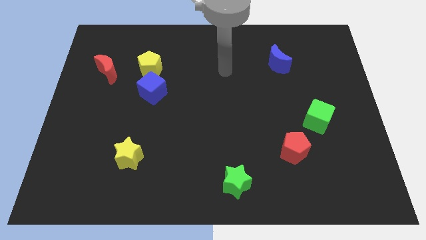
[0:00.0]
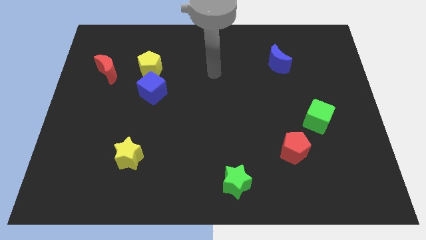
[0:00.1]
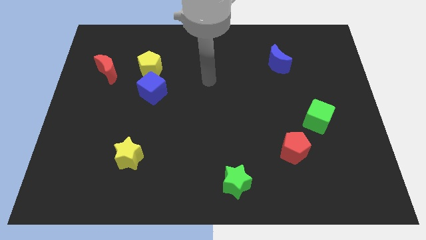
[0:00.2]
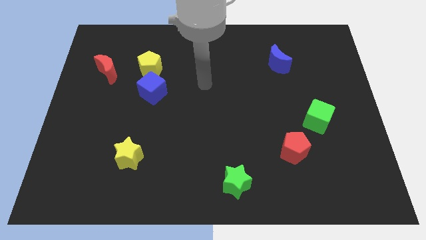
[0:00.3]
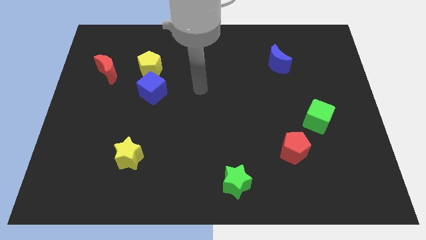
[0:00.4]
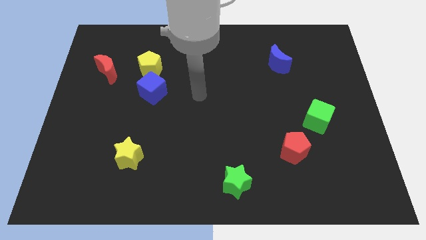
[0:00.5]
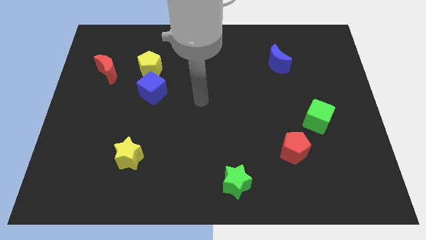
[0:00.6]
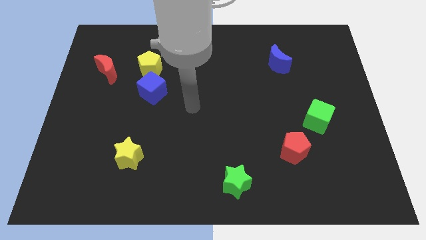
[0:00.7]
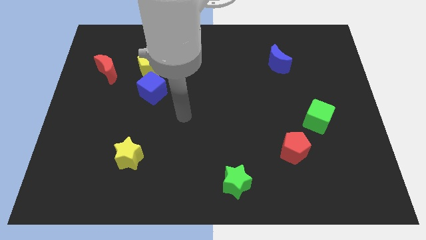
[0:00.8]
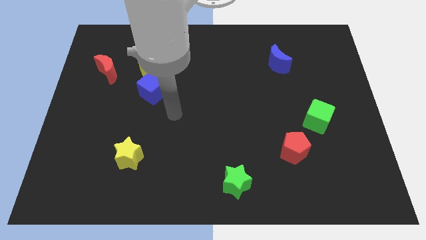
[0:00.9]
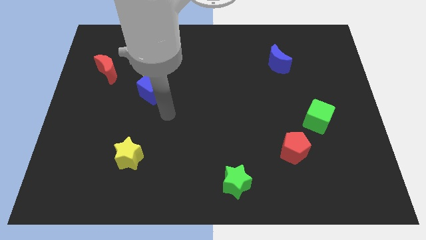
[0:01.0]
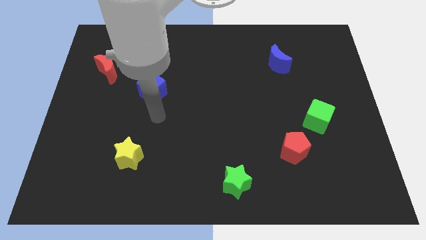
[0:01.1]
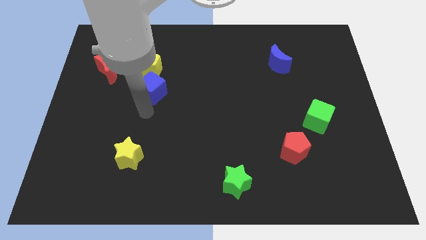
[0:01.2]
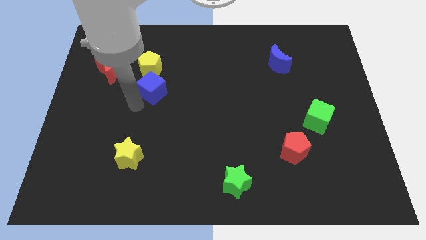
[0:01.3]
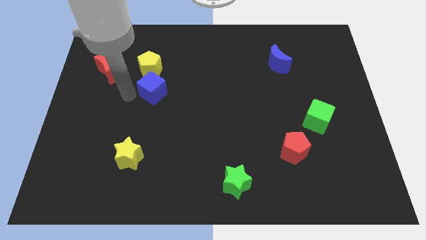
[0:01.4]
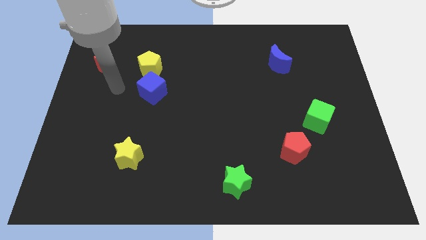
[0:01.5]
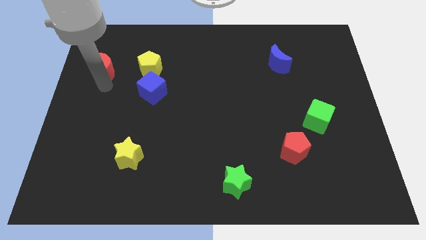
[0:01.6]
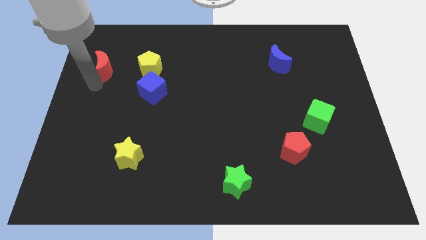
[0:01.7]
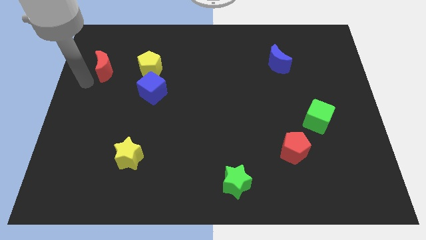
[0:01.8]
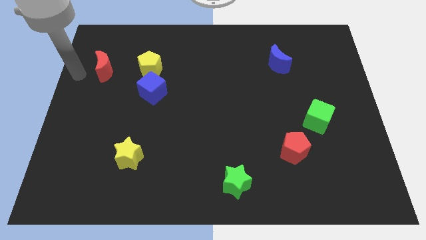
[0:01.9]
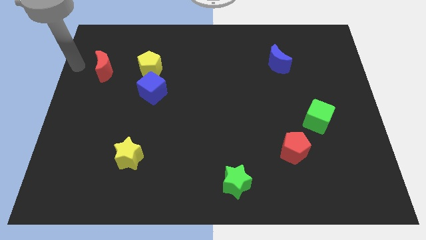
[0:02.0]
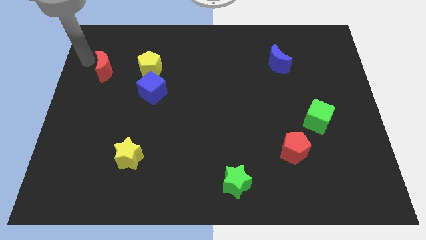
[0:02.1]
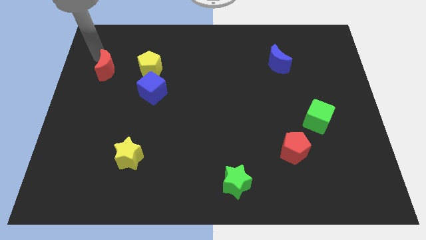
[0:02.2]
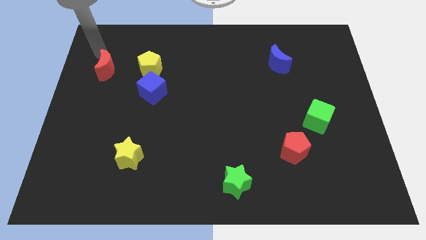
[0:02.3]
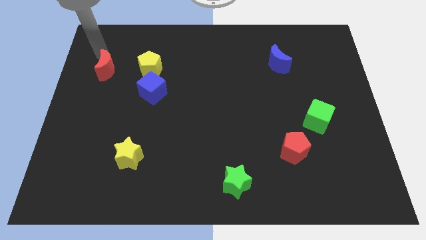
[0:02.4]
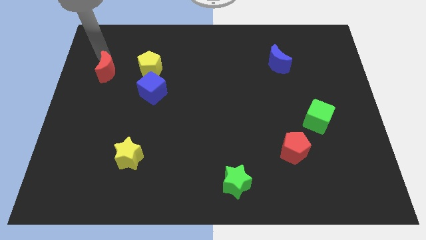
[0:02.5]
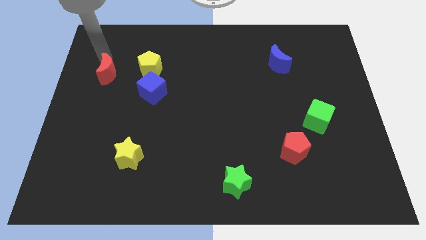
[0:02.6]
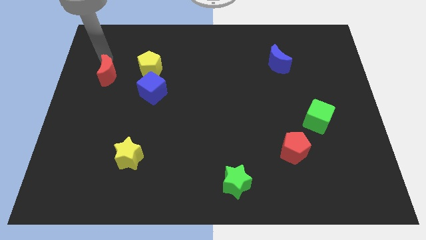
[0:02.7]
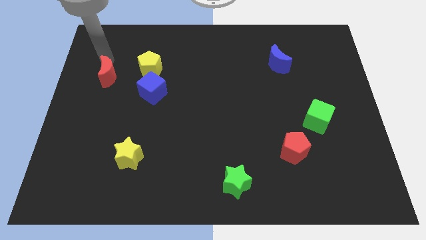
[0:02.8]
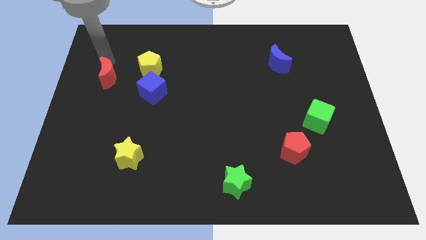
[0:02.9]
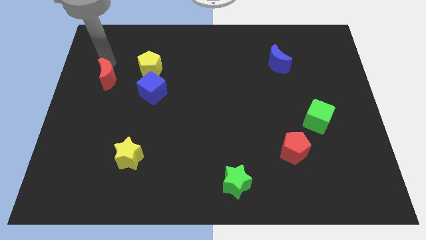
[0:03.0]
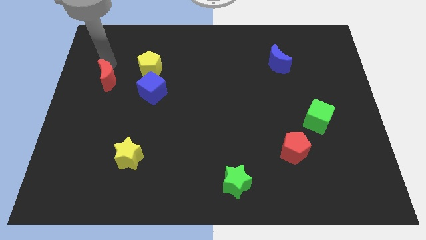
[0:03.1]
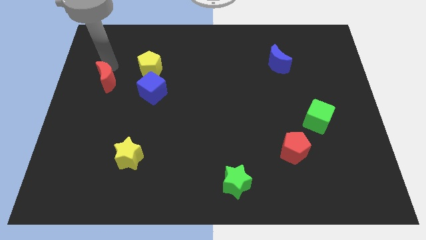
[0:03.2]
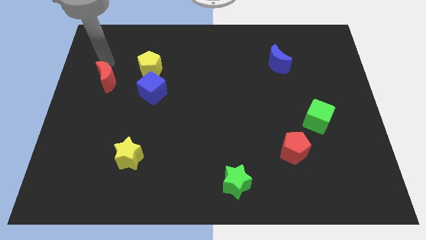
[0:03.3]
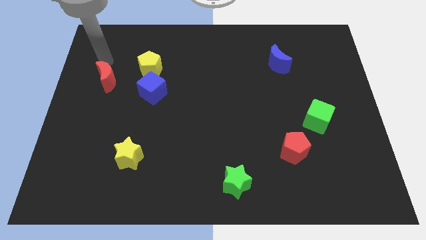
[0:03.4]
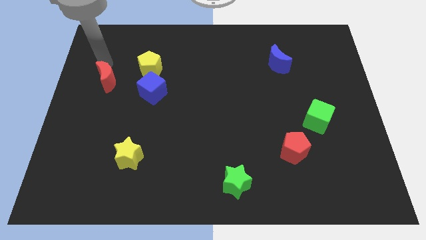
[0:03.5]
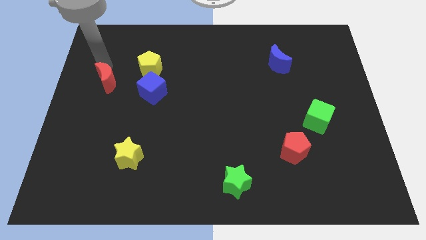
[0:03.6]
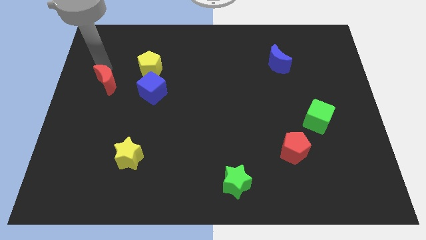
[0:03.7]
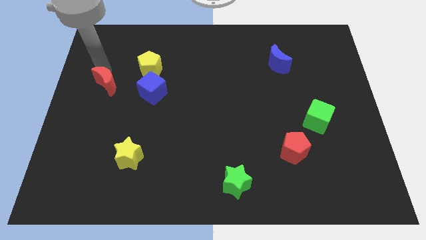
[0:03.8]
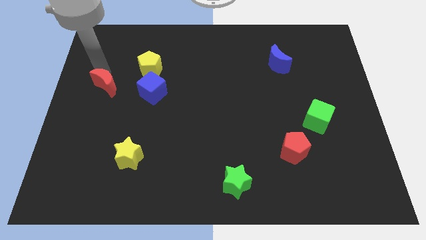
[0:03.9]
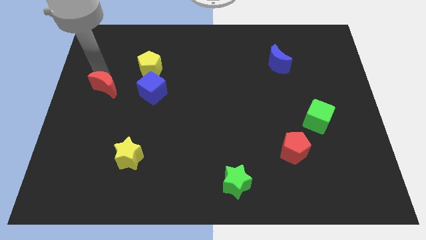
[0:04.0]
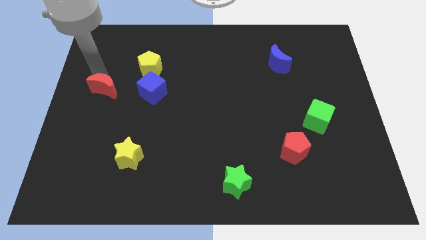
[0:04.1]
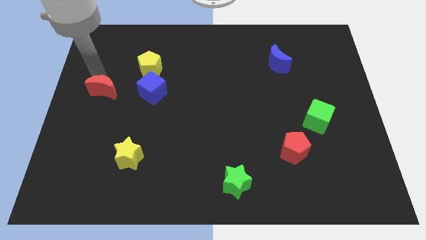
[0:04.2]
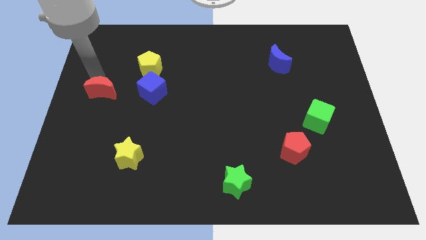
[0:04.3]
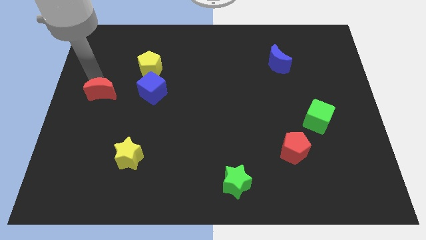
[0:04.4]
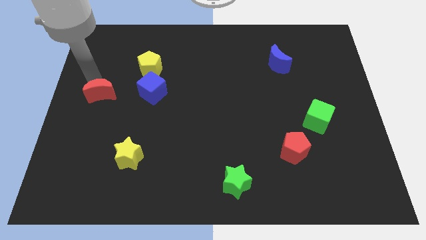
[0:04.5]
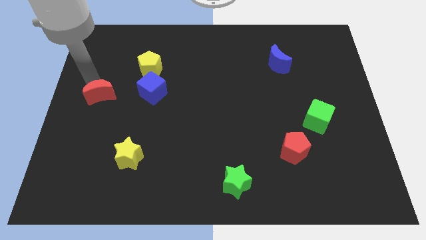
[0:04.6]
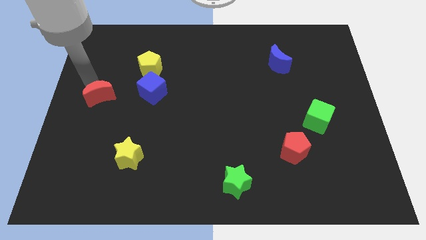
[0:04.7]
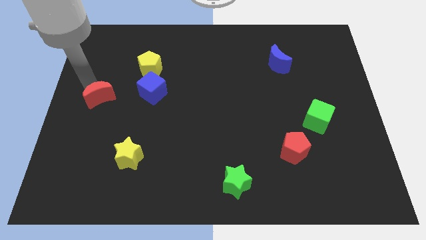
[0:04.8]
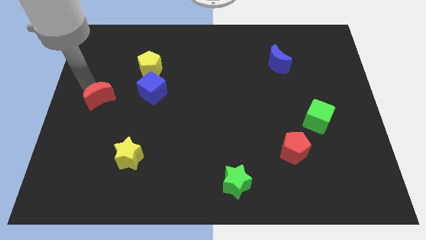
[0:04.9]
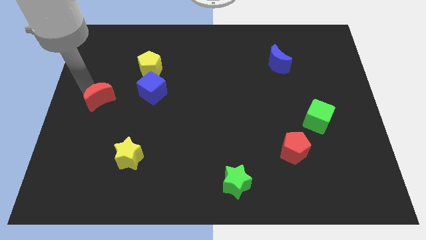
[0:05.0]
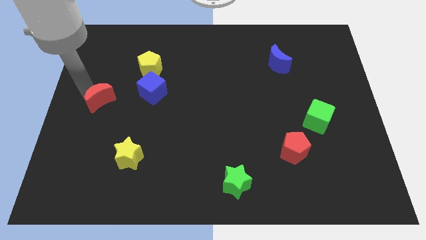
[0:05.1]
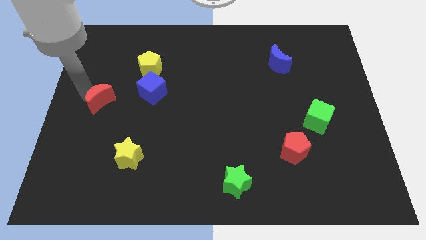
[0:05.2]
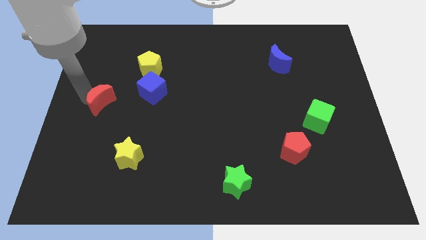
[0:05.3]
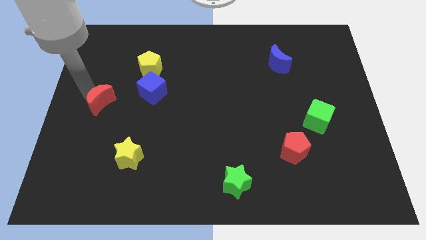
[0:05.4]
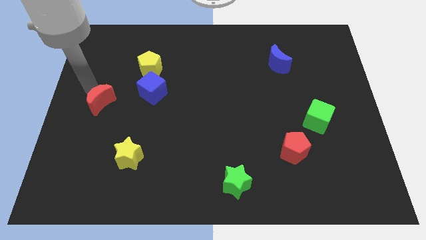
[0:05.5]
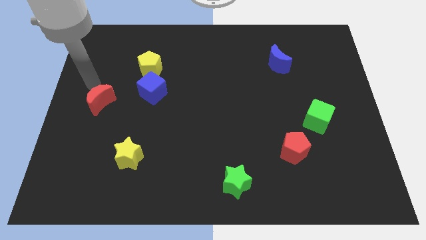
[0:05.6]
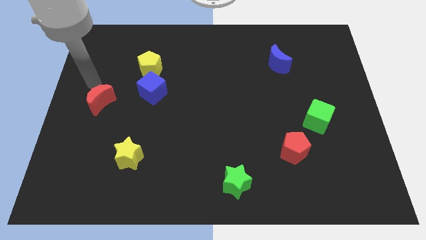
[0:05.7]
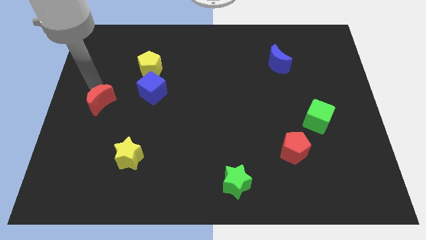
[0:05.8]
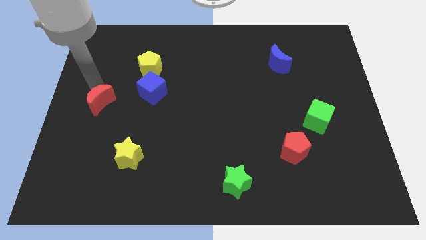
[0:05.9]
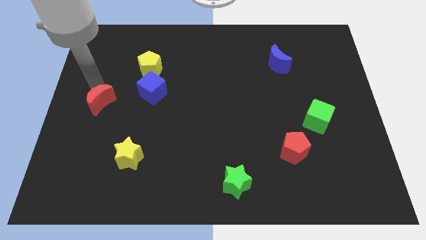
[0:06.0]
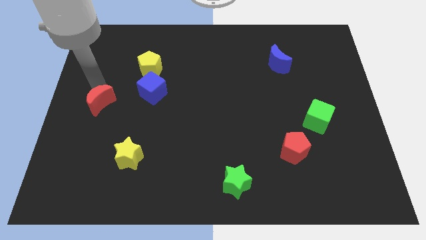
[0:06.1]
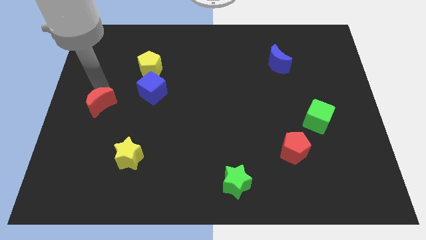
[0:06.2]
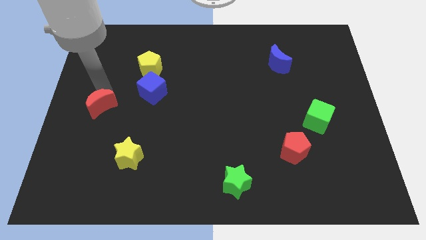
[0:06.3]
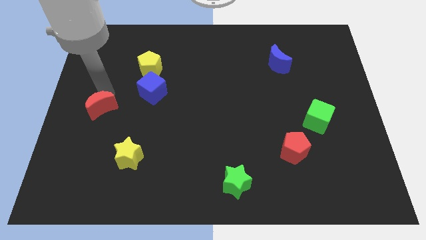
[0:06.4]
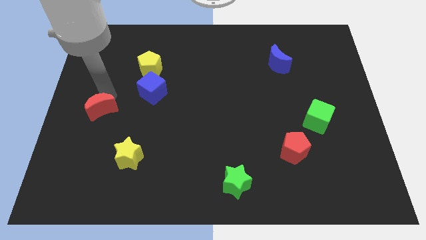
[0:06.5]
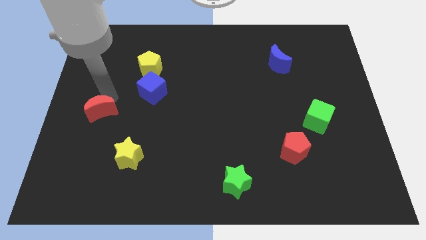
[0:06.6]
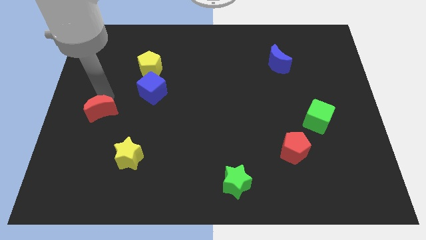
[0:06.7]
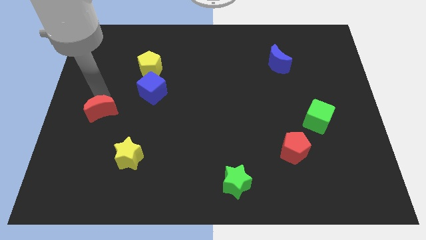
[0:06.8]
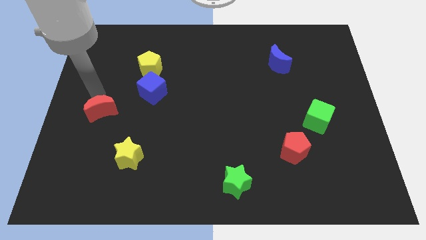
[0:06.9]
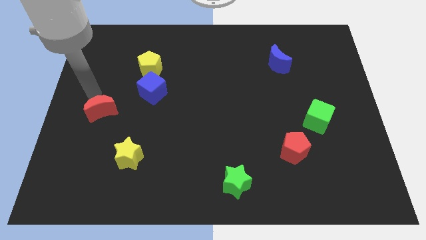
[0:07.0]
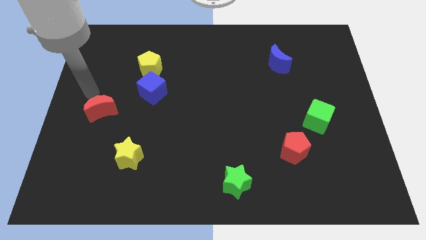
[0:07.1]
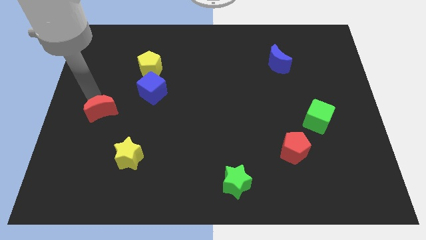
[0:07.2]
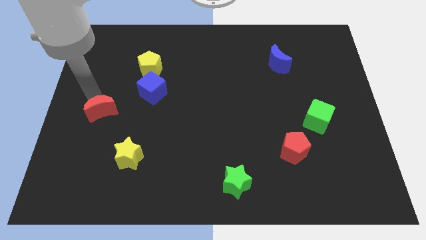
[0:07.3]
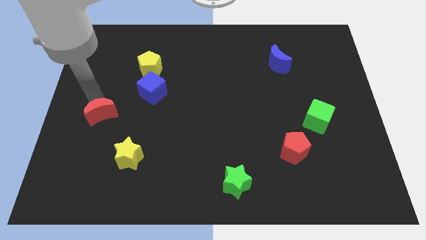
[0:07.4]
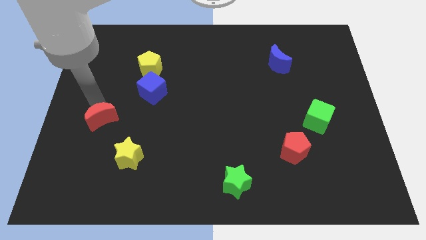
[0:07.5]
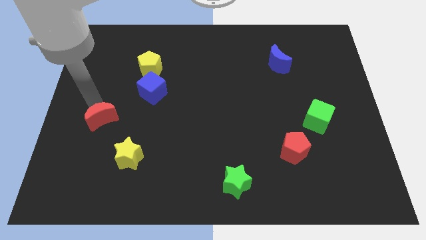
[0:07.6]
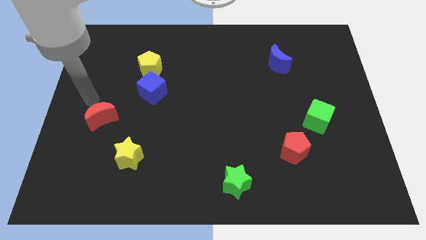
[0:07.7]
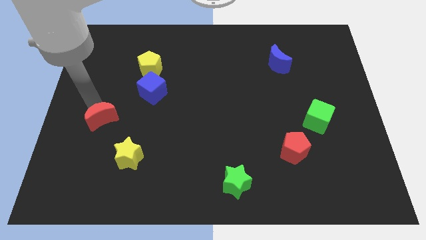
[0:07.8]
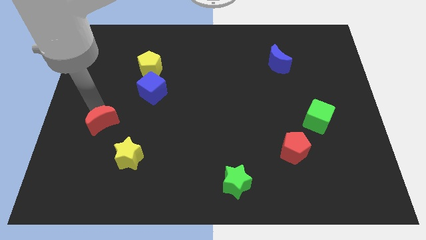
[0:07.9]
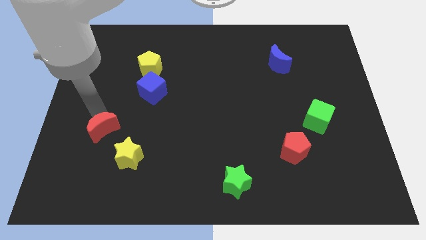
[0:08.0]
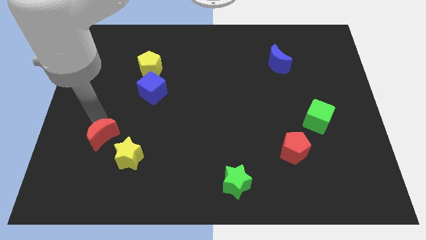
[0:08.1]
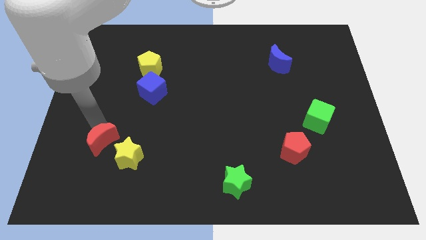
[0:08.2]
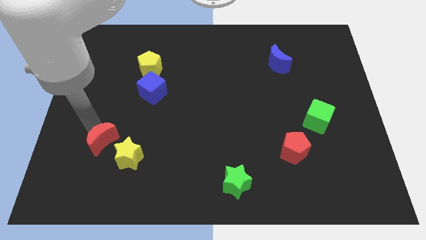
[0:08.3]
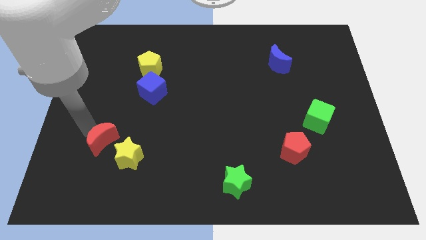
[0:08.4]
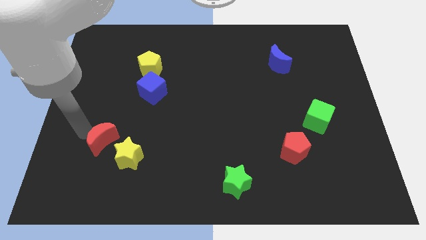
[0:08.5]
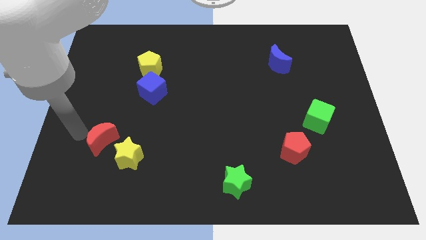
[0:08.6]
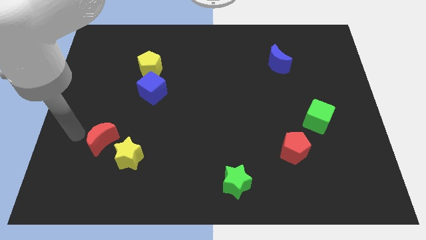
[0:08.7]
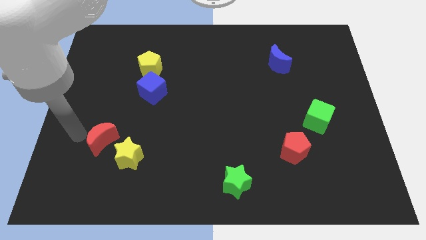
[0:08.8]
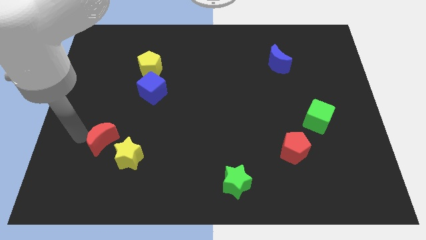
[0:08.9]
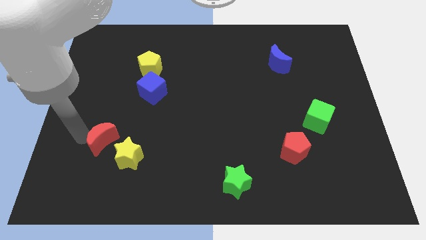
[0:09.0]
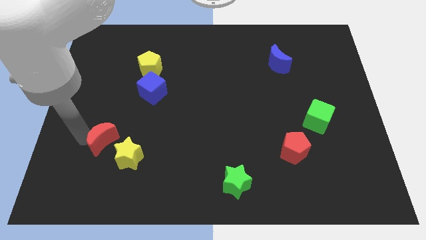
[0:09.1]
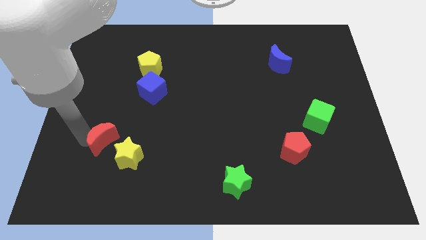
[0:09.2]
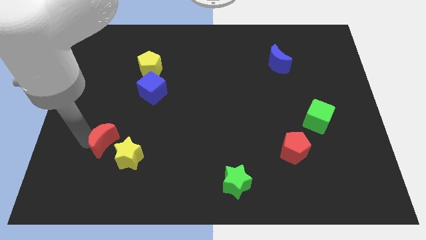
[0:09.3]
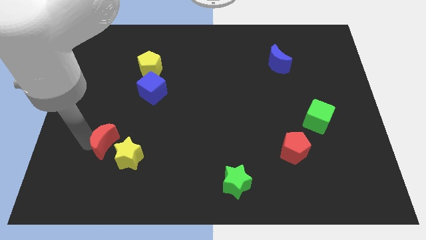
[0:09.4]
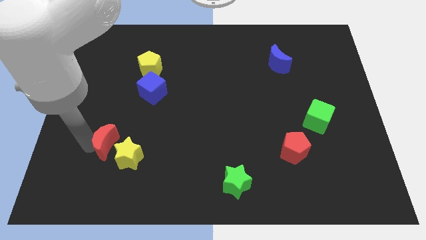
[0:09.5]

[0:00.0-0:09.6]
push the red moon next to the yellow star
